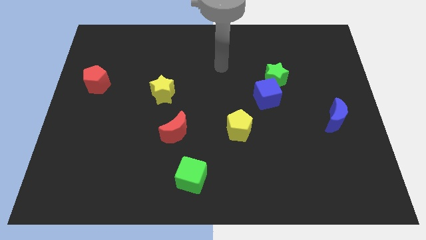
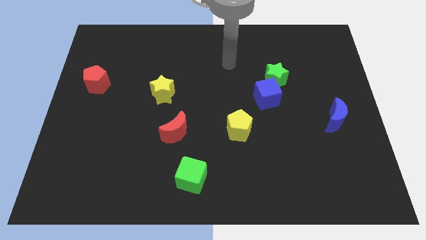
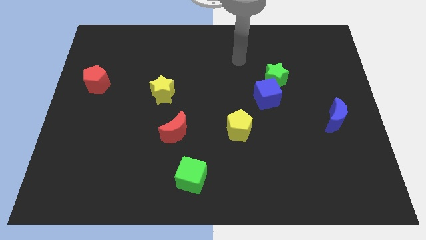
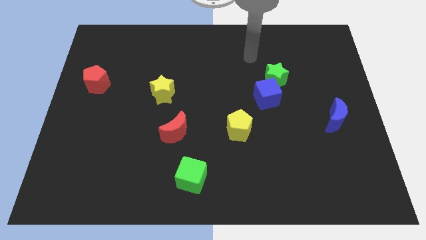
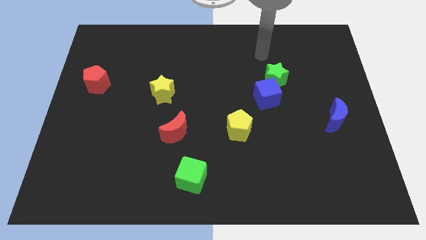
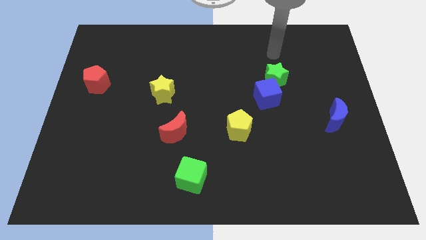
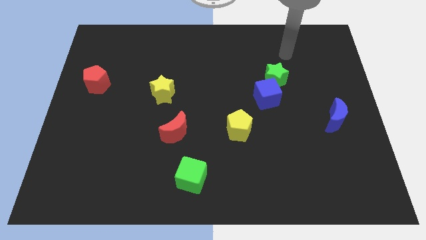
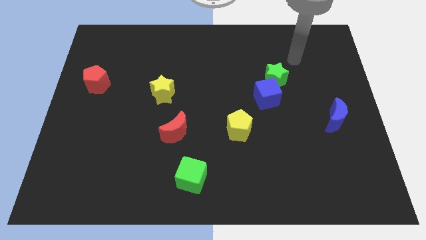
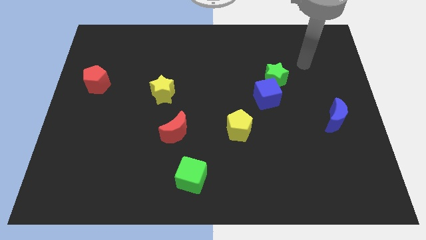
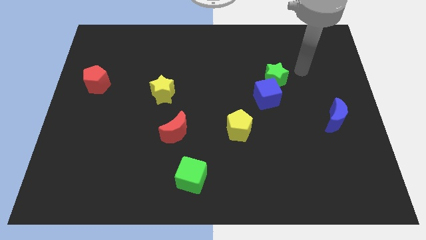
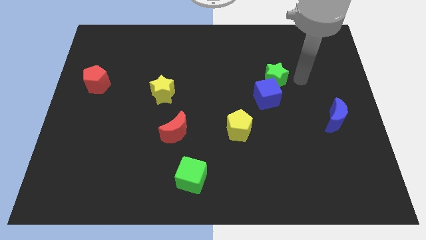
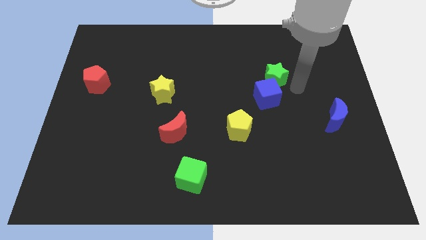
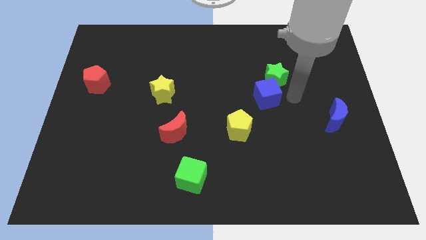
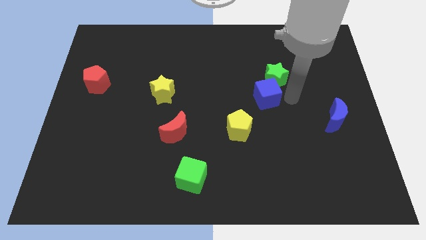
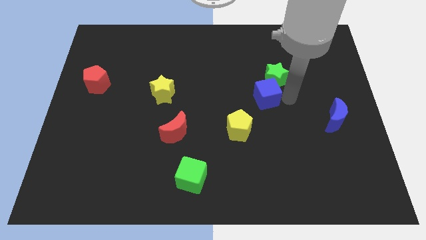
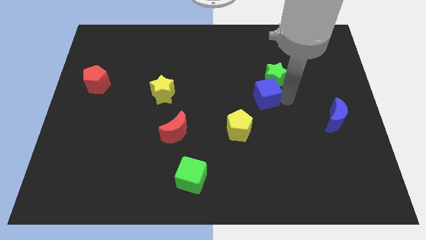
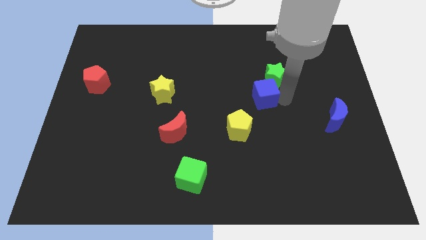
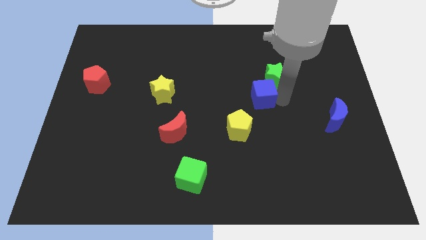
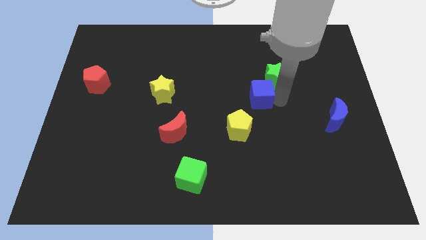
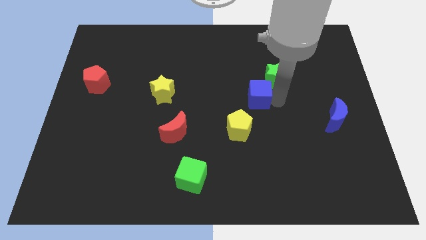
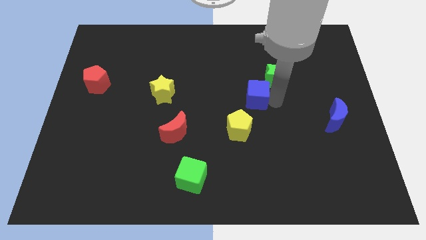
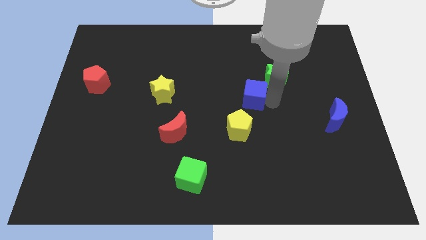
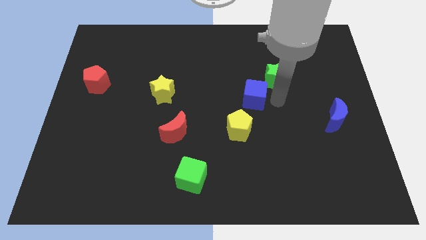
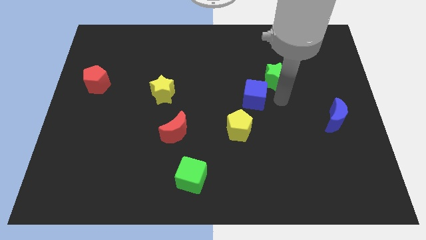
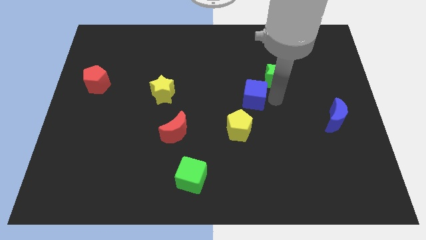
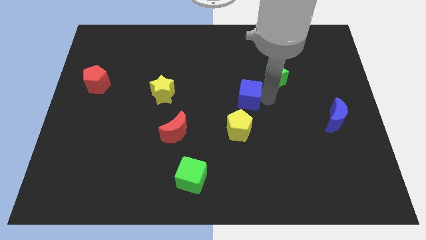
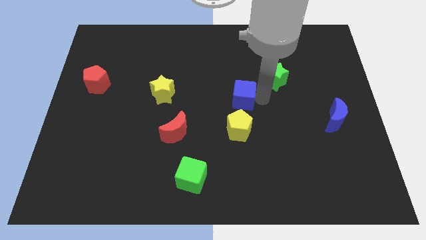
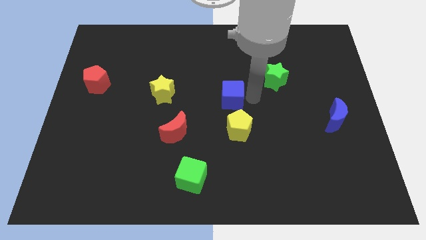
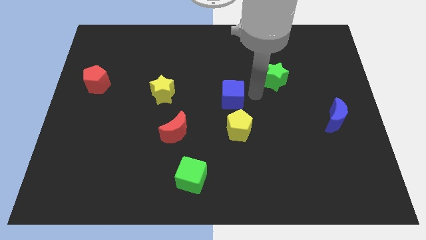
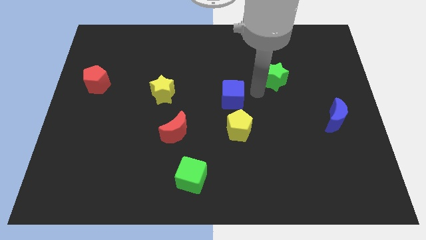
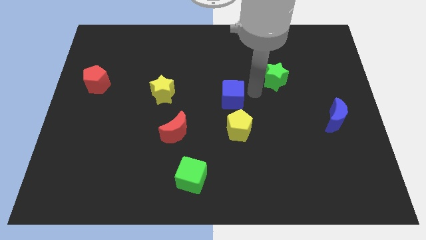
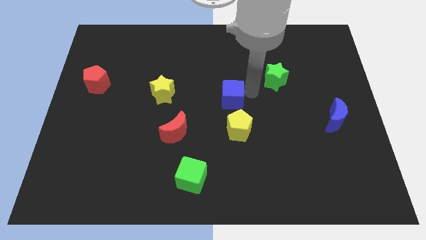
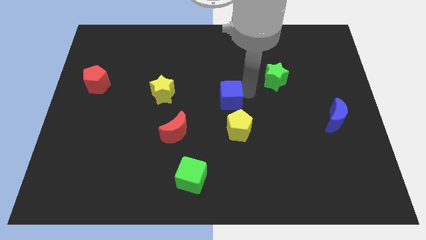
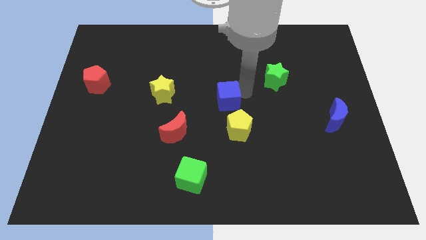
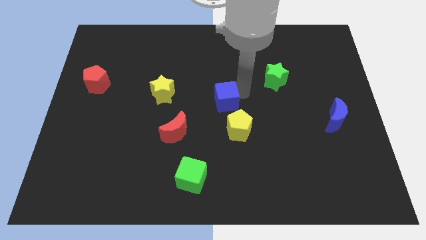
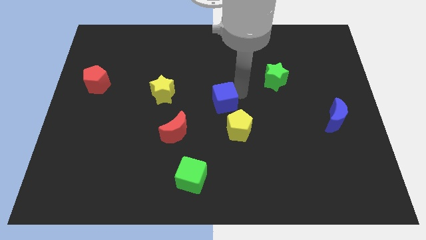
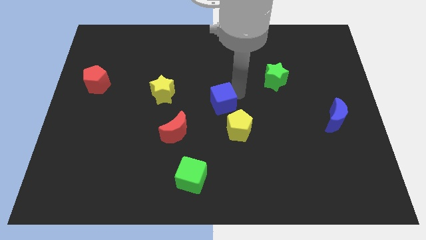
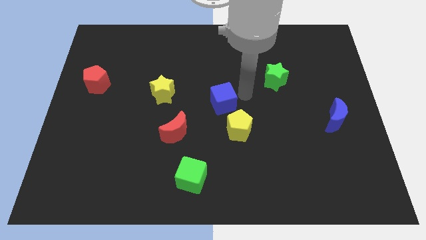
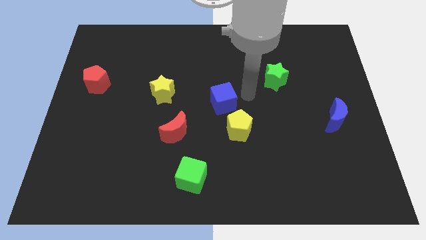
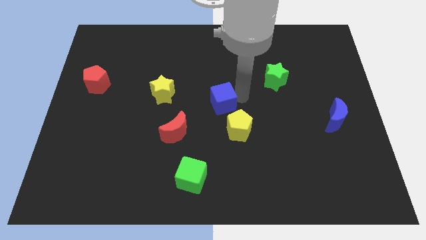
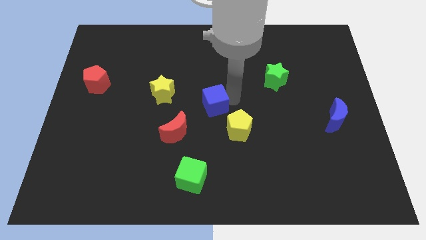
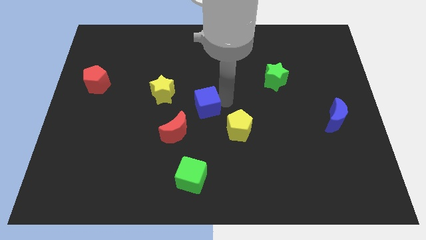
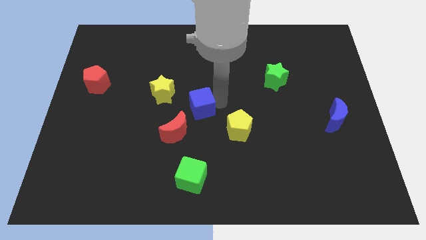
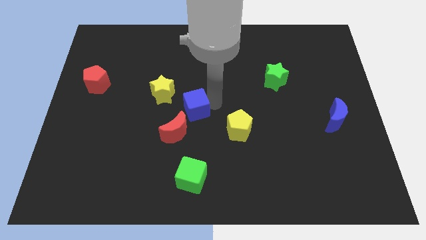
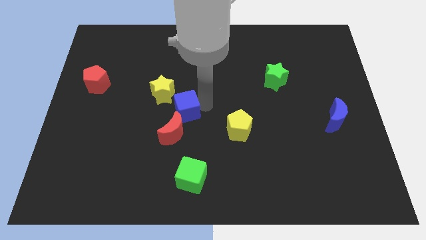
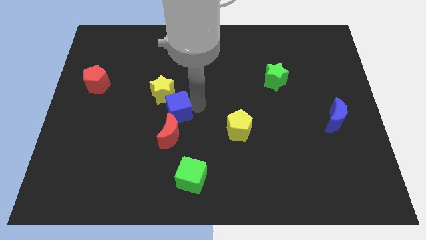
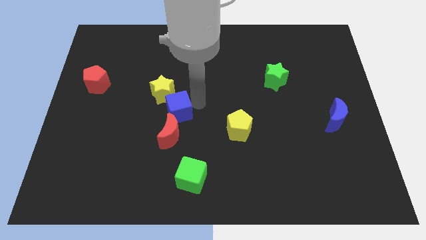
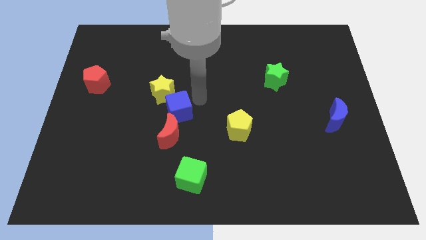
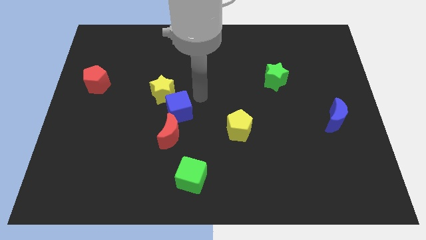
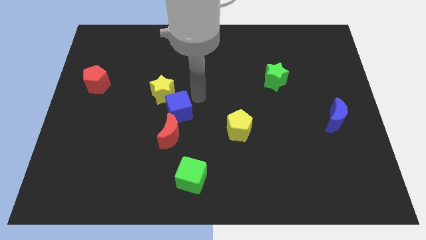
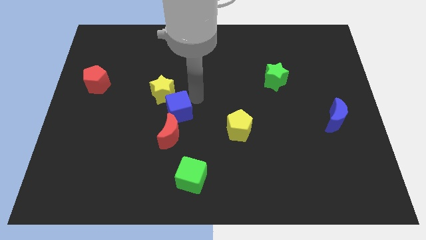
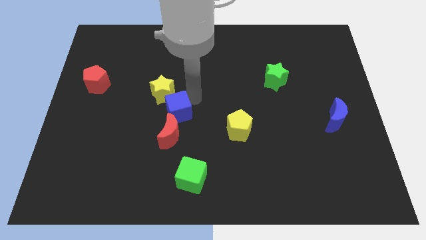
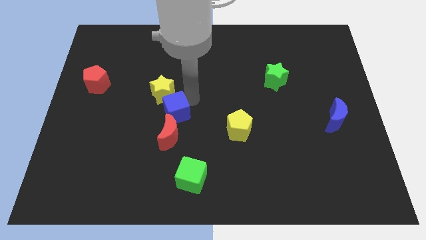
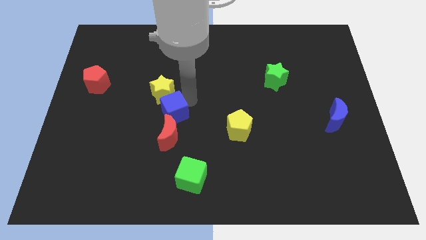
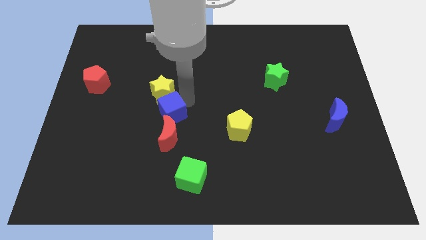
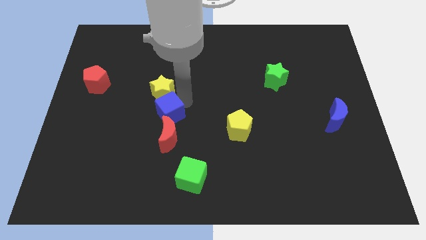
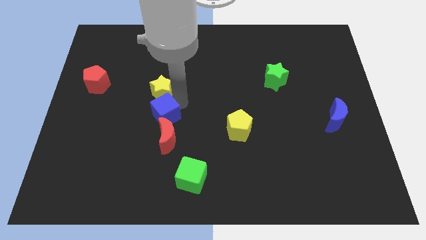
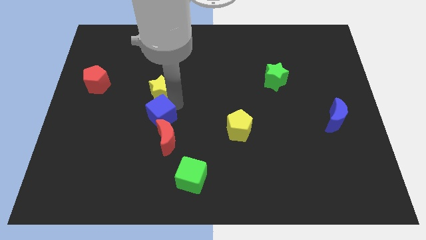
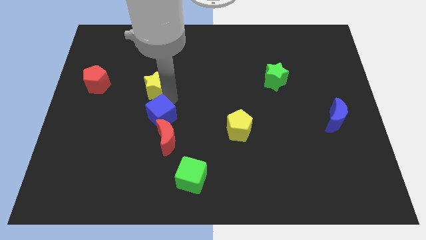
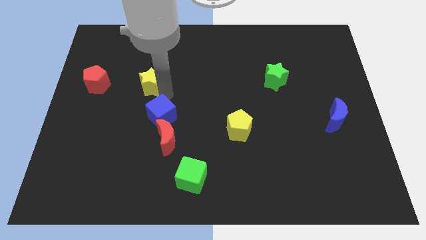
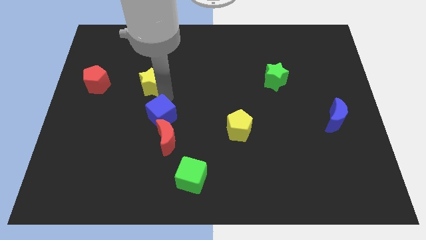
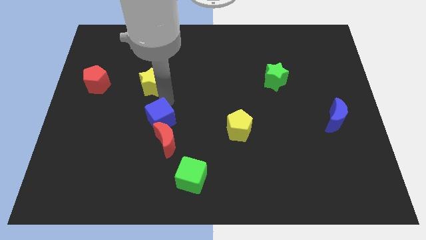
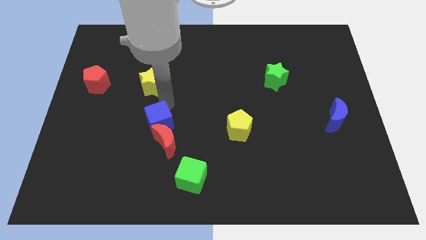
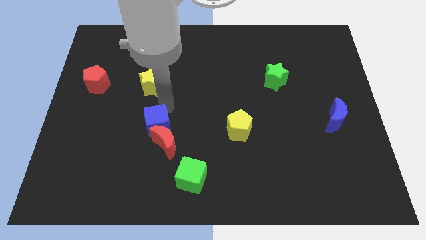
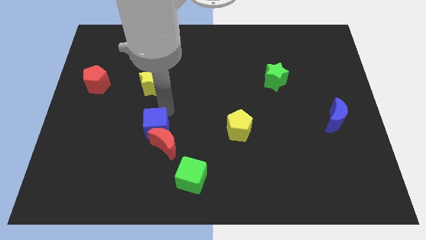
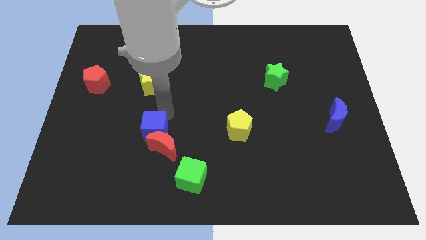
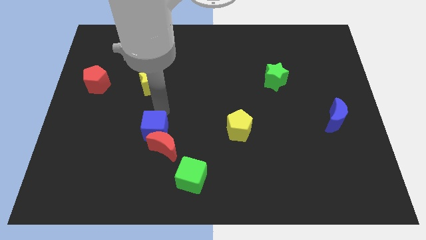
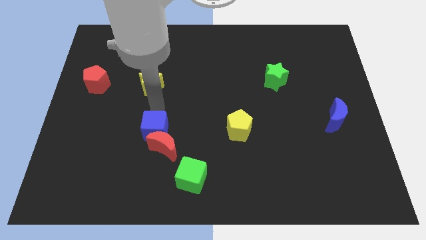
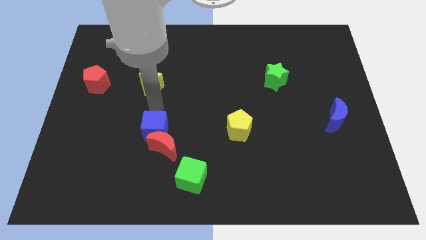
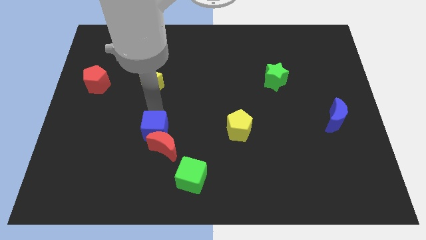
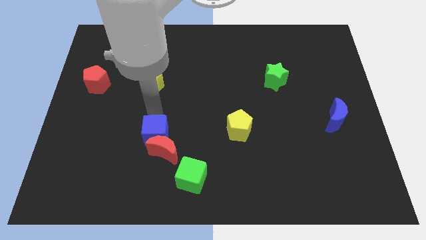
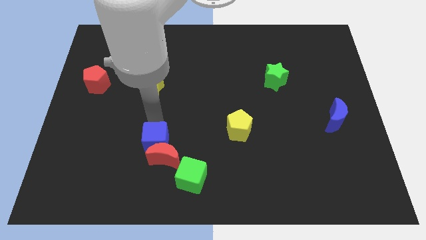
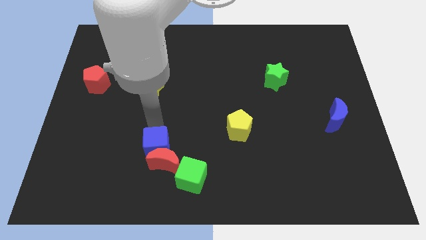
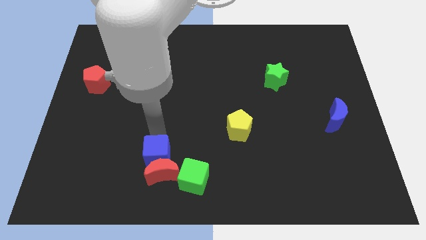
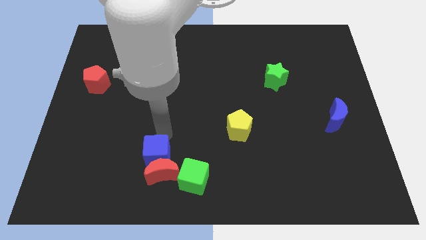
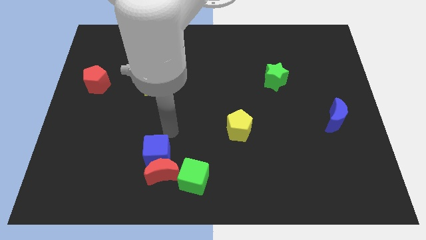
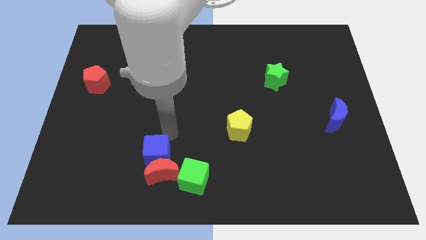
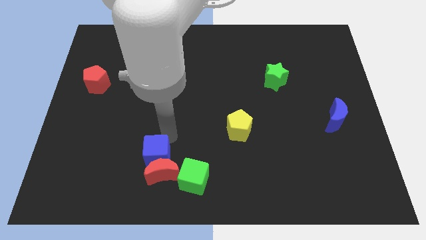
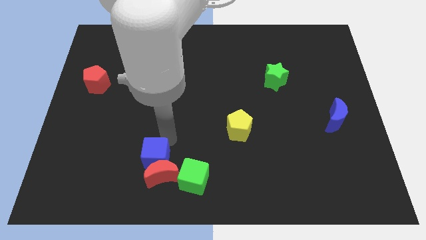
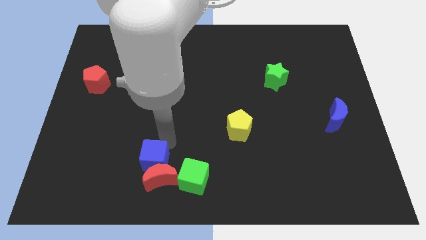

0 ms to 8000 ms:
put the blue cube left of the green cube
